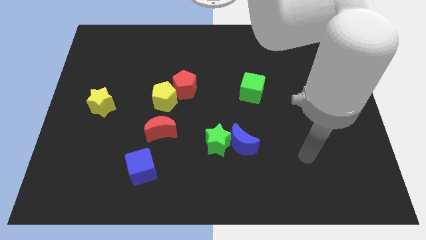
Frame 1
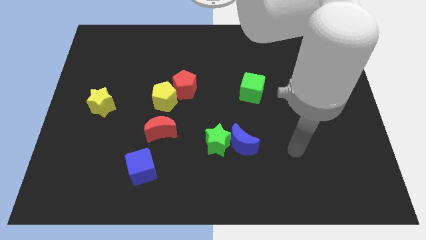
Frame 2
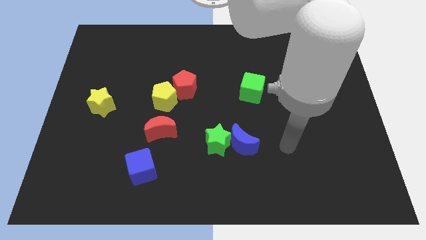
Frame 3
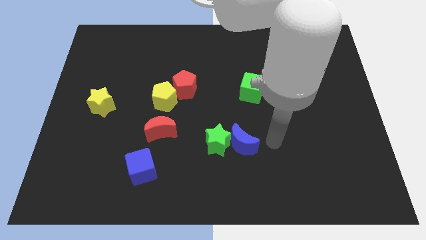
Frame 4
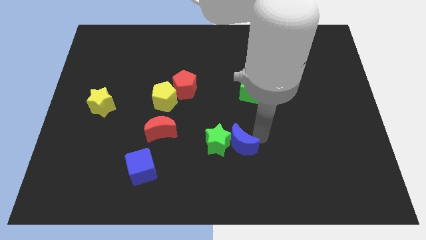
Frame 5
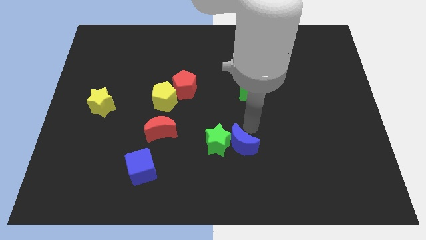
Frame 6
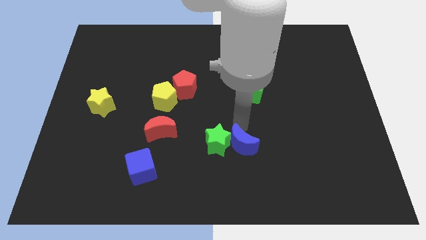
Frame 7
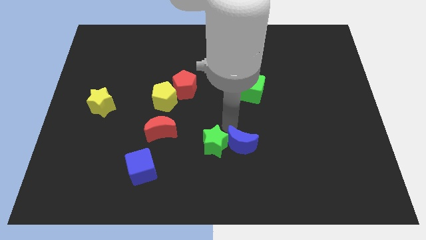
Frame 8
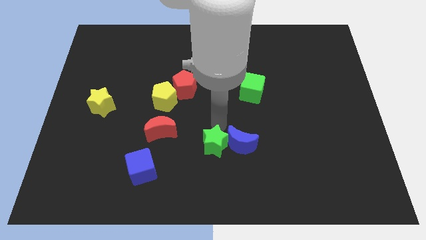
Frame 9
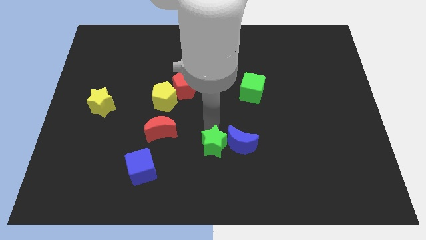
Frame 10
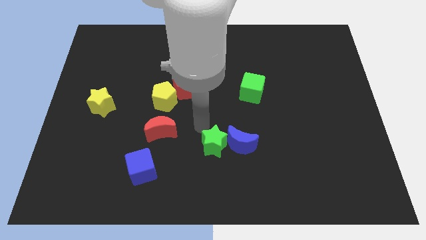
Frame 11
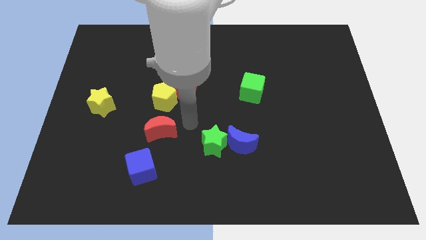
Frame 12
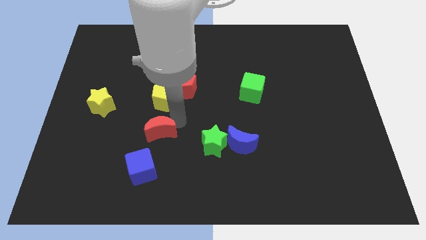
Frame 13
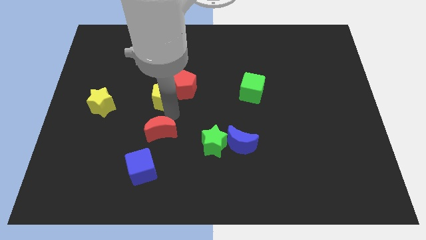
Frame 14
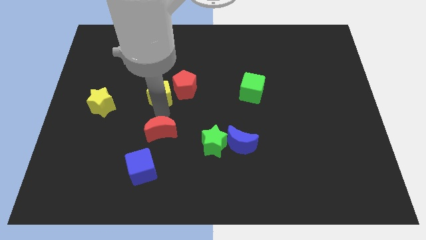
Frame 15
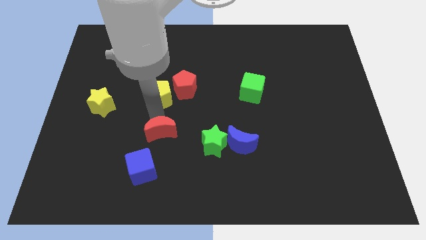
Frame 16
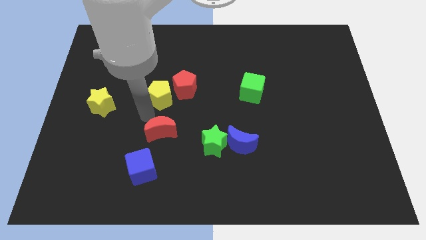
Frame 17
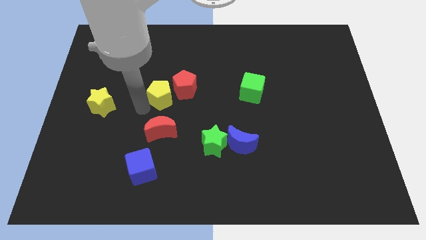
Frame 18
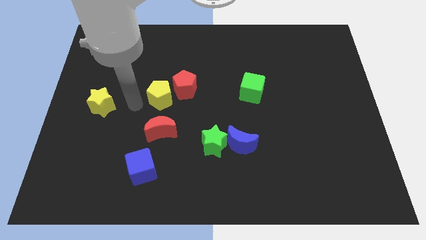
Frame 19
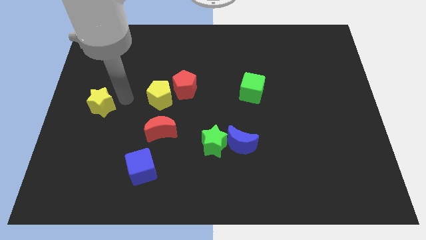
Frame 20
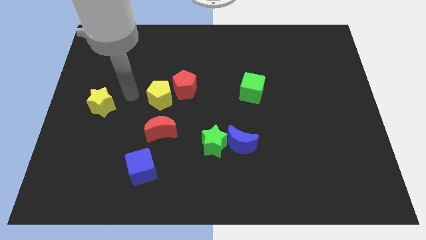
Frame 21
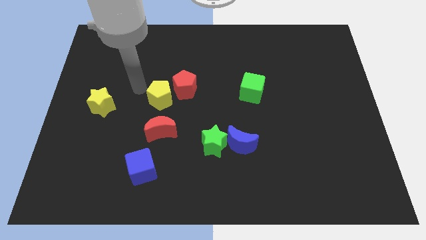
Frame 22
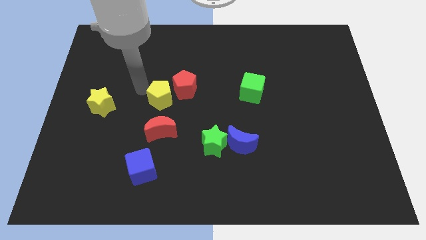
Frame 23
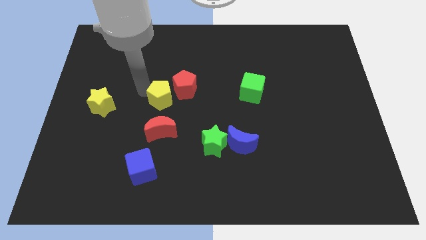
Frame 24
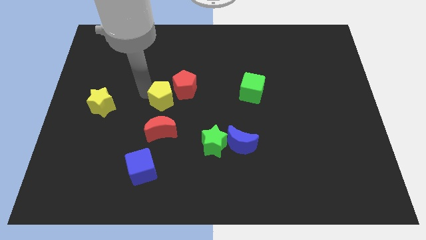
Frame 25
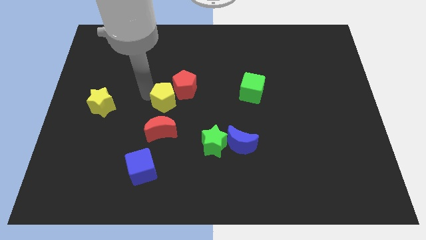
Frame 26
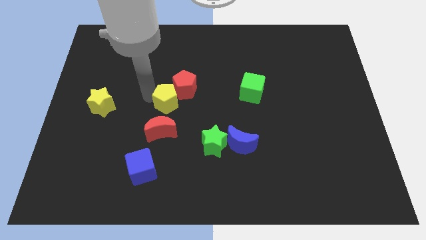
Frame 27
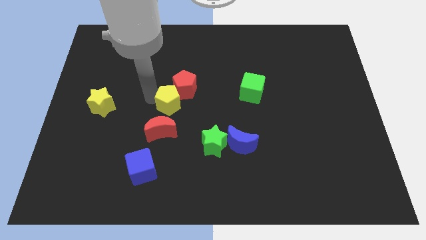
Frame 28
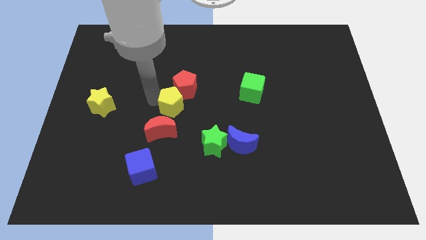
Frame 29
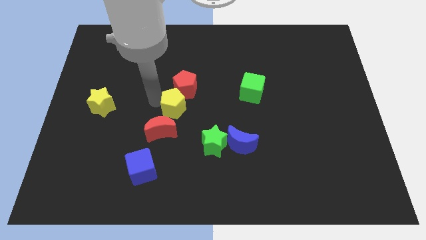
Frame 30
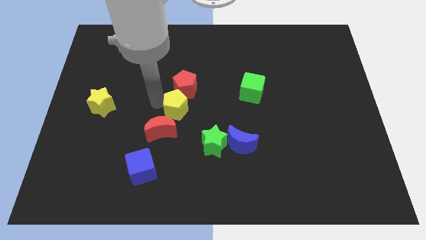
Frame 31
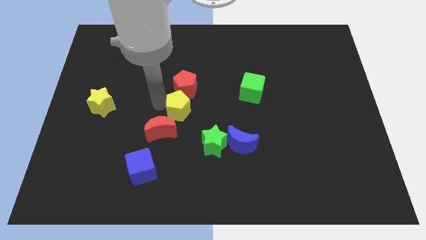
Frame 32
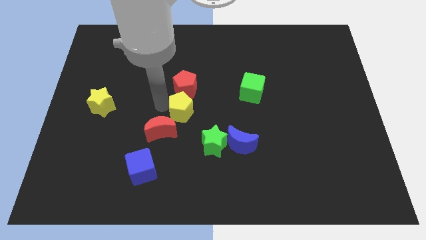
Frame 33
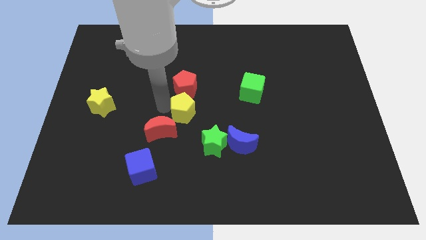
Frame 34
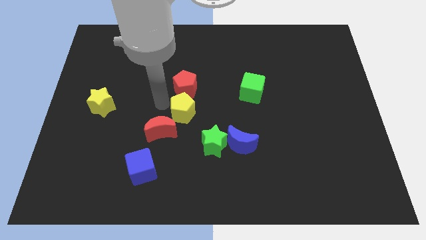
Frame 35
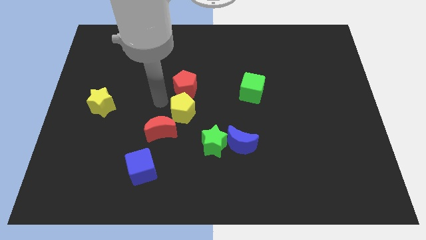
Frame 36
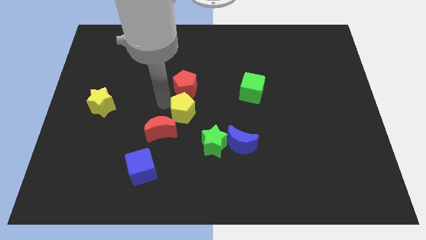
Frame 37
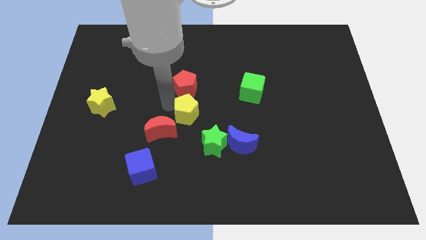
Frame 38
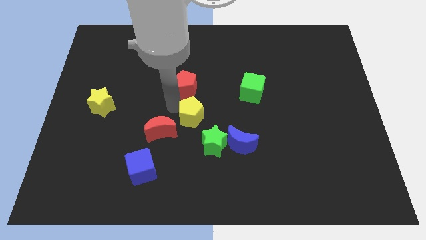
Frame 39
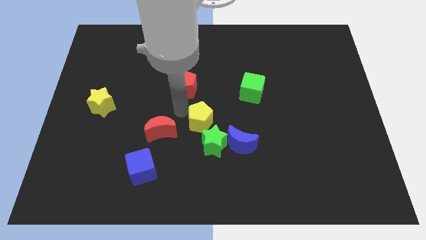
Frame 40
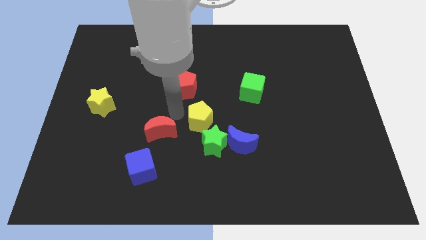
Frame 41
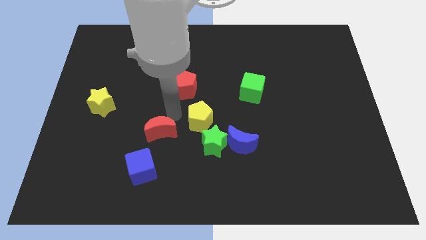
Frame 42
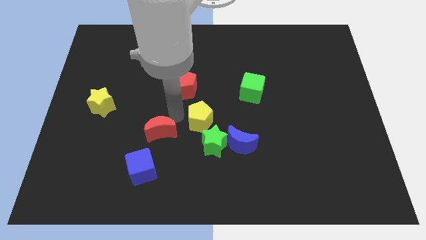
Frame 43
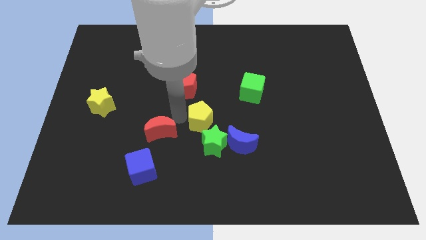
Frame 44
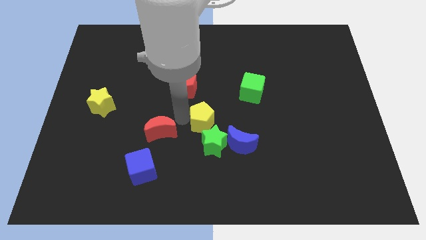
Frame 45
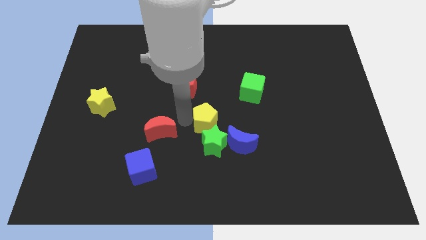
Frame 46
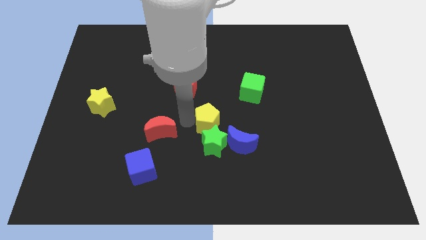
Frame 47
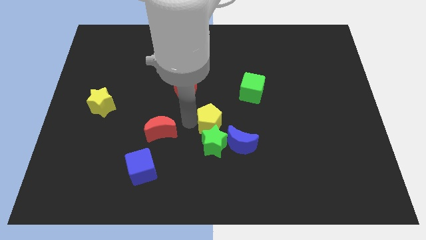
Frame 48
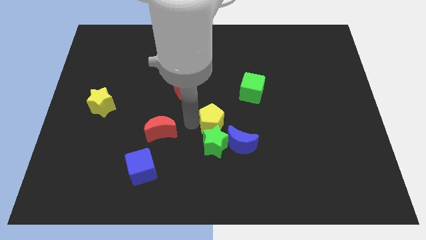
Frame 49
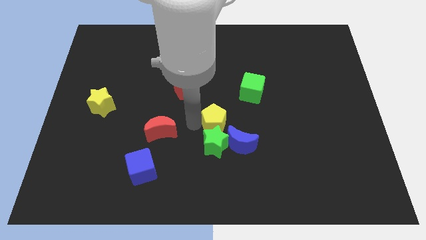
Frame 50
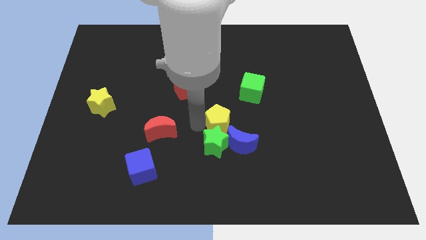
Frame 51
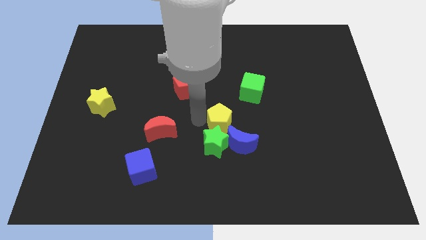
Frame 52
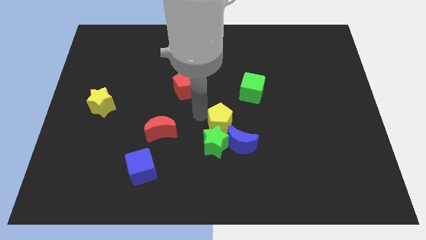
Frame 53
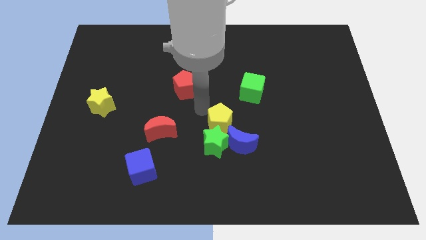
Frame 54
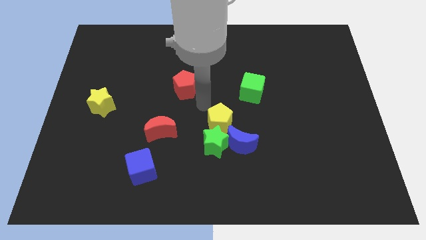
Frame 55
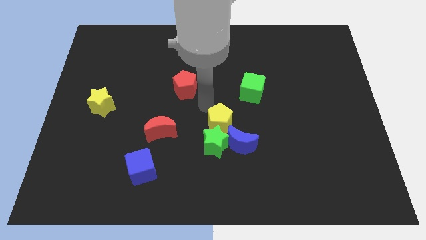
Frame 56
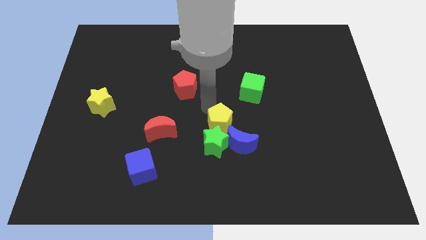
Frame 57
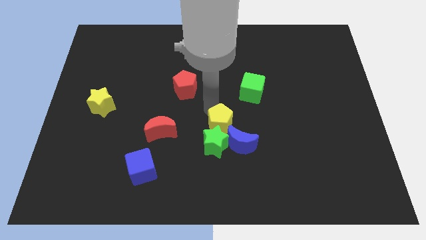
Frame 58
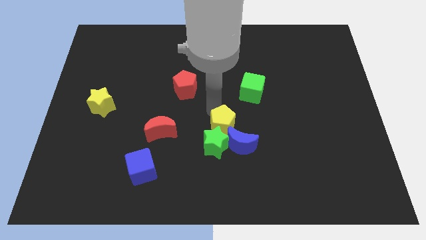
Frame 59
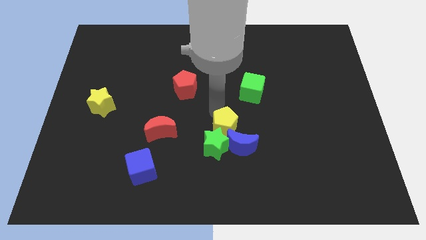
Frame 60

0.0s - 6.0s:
slide the yellow pentagon close to the blue moon

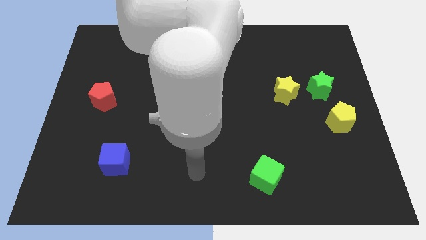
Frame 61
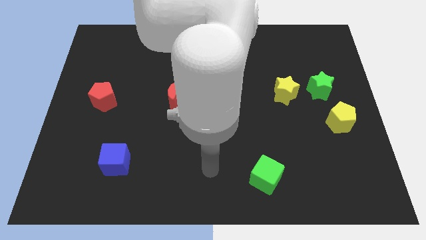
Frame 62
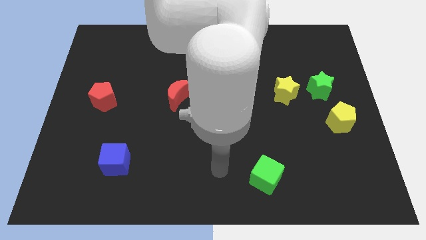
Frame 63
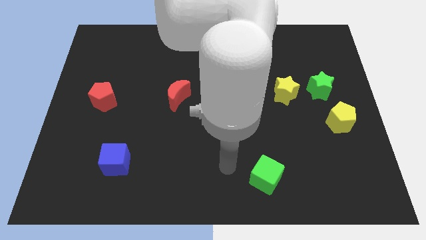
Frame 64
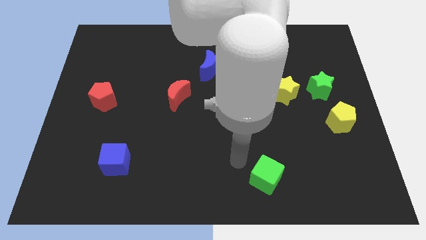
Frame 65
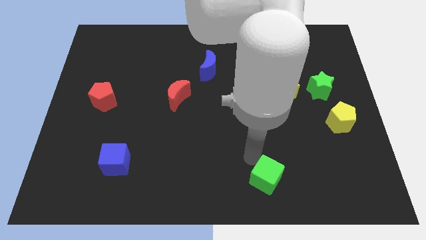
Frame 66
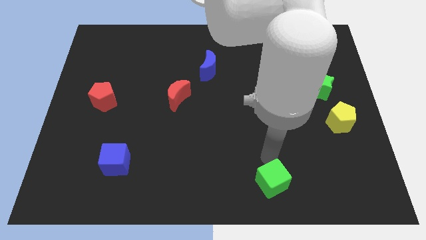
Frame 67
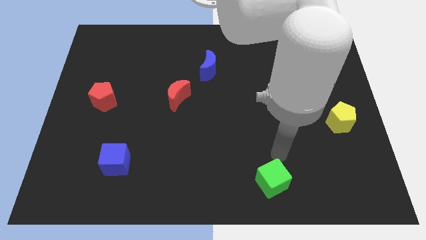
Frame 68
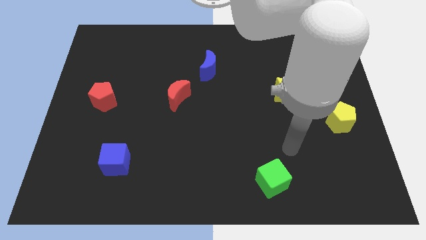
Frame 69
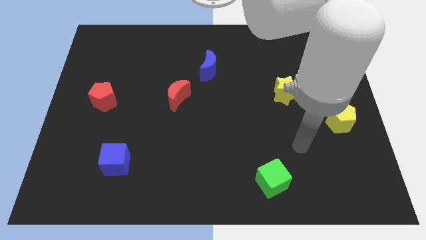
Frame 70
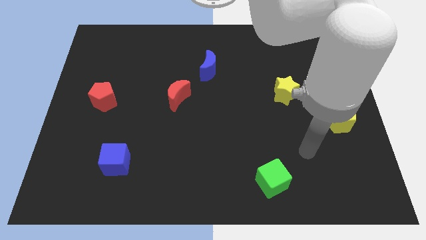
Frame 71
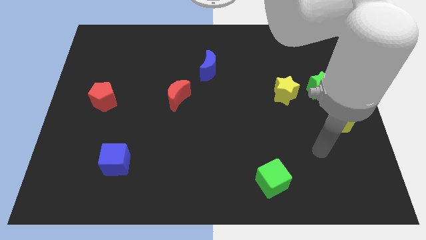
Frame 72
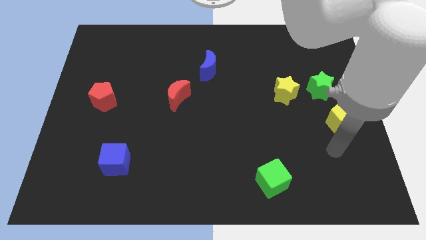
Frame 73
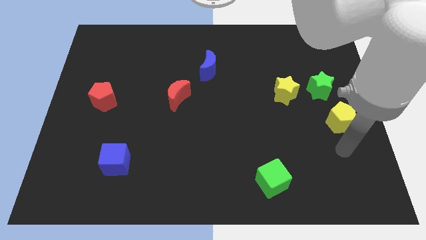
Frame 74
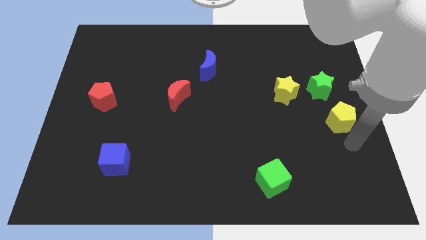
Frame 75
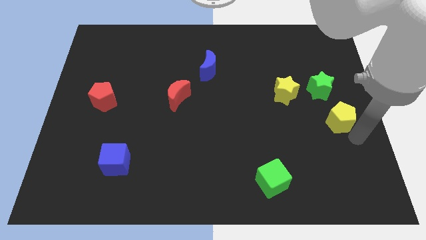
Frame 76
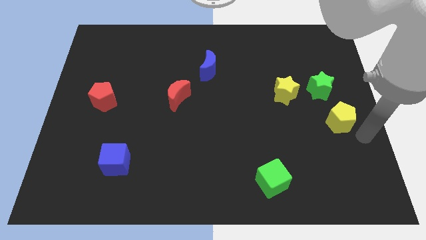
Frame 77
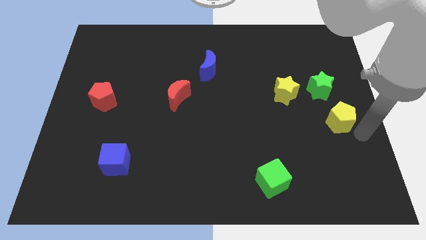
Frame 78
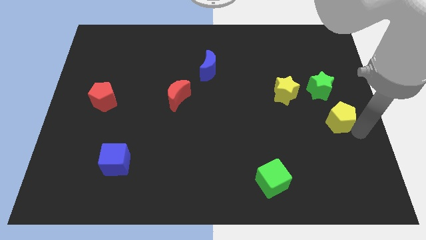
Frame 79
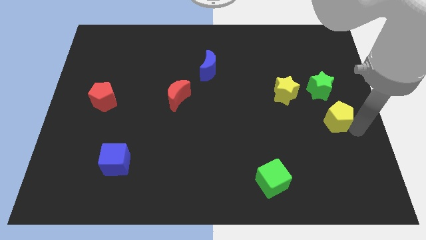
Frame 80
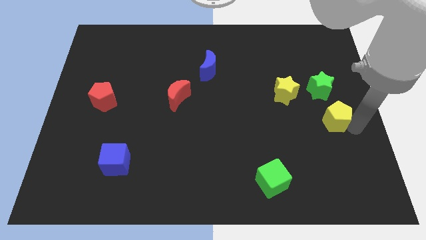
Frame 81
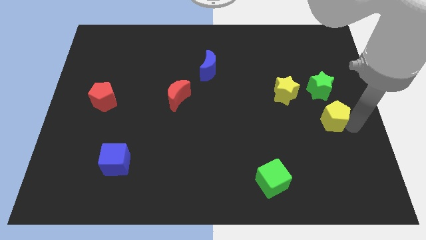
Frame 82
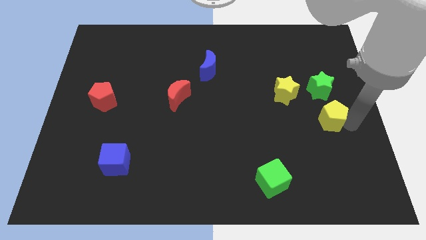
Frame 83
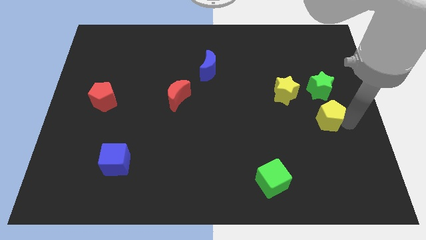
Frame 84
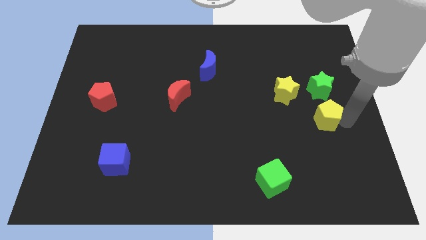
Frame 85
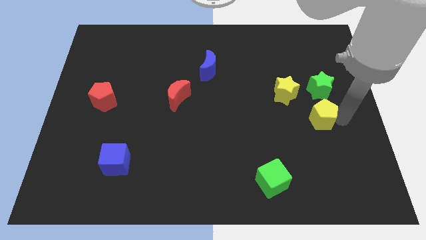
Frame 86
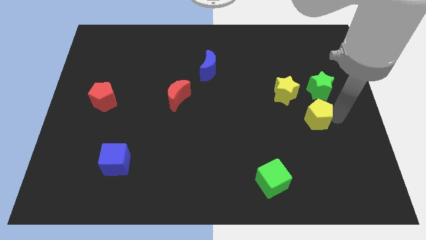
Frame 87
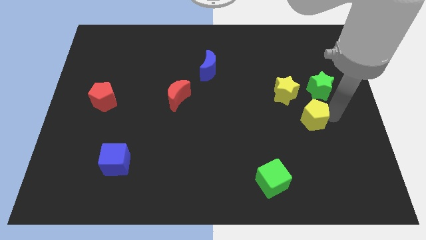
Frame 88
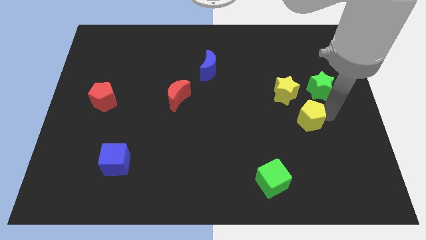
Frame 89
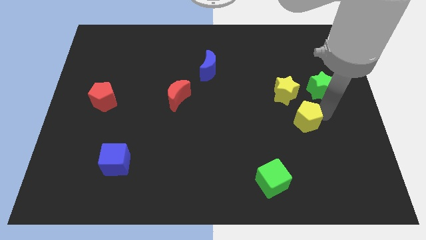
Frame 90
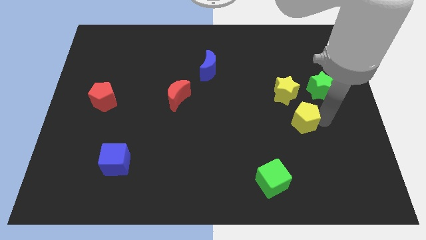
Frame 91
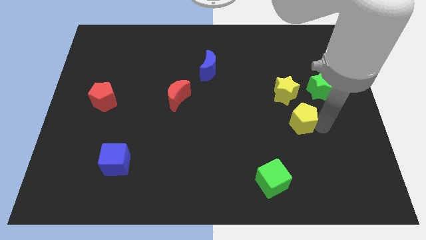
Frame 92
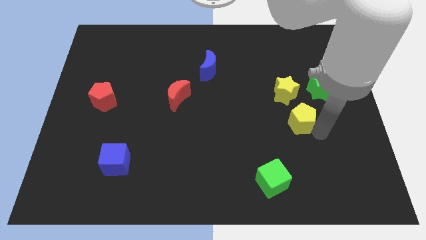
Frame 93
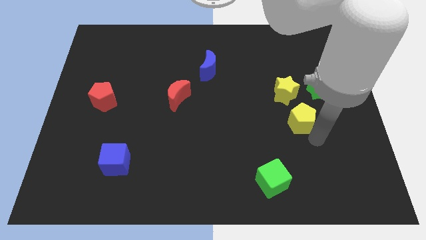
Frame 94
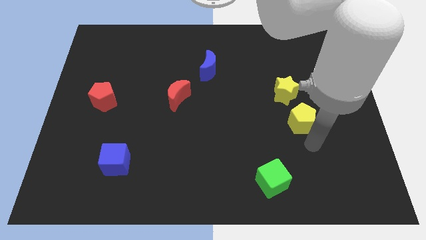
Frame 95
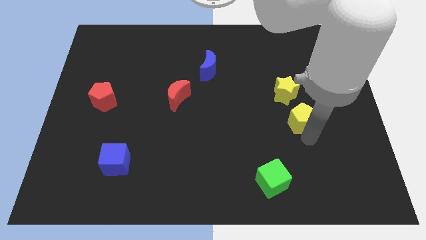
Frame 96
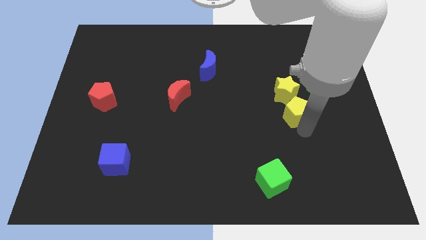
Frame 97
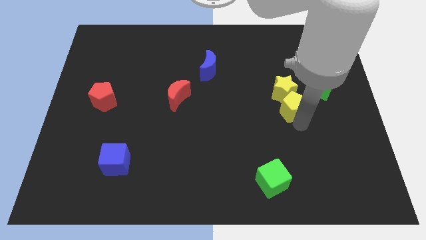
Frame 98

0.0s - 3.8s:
push the yellow pentagon towards the yellow star
